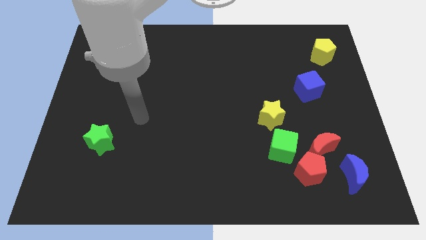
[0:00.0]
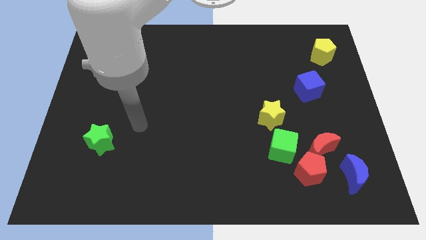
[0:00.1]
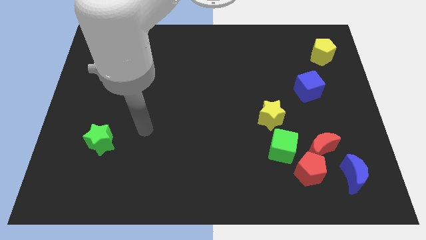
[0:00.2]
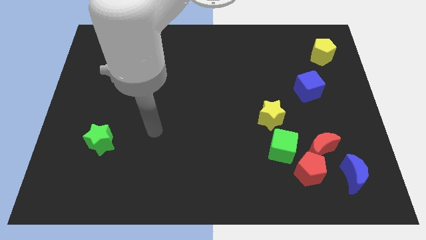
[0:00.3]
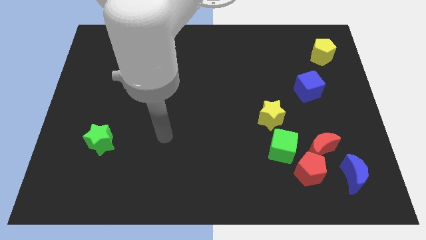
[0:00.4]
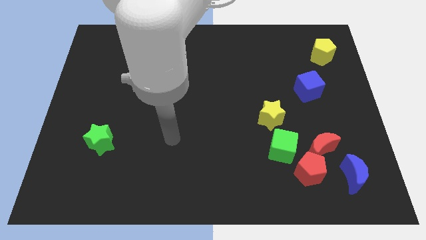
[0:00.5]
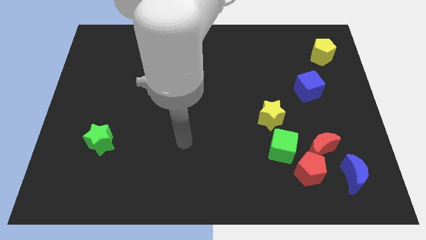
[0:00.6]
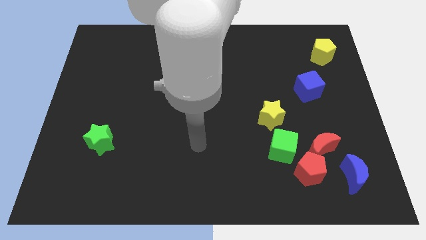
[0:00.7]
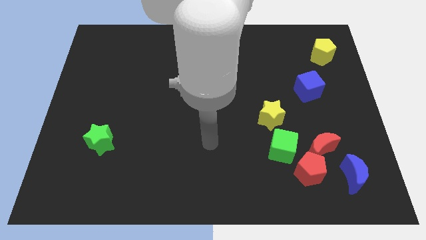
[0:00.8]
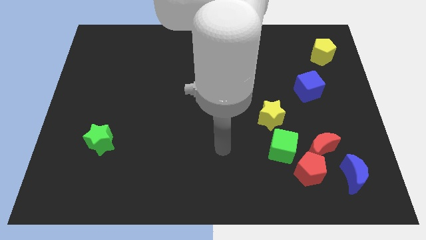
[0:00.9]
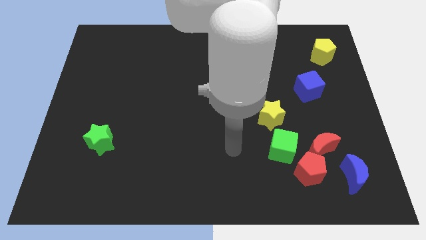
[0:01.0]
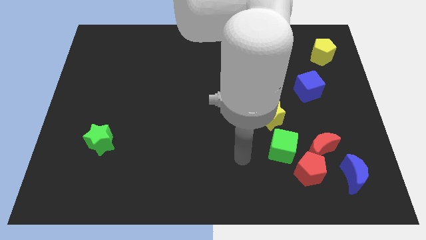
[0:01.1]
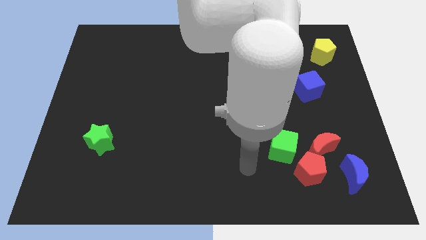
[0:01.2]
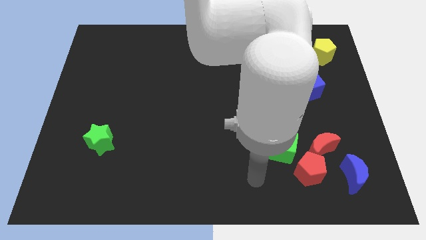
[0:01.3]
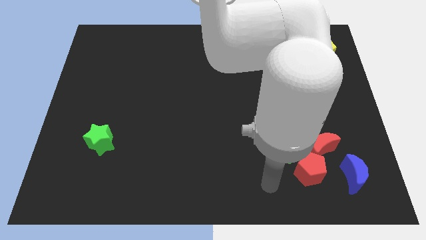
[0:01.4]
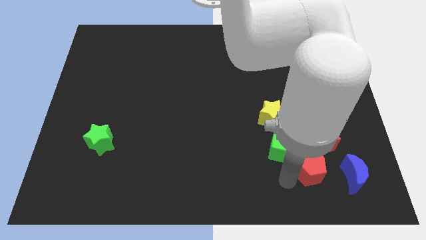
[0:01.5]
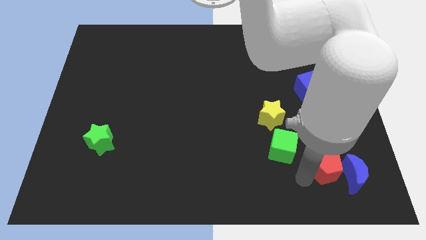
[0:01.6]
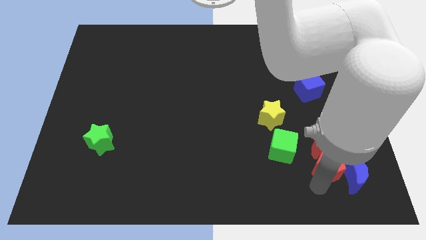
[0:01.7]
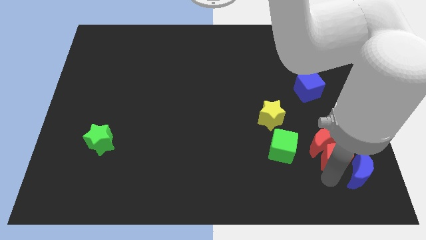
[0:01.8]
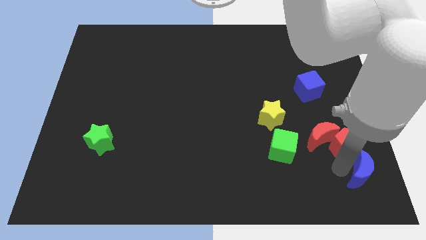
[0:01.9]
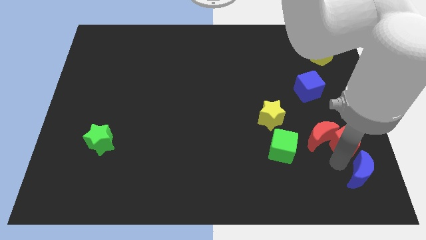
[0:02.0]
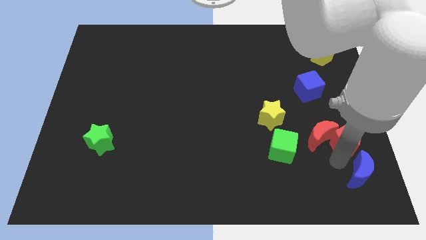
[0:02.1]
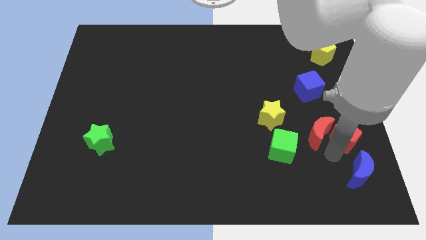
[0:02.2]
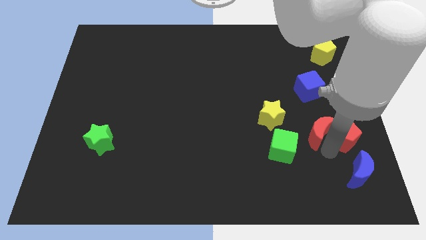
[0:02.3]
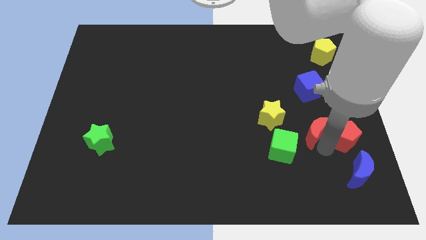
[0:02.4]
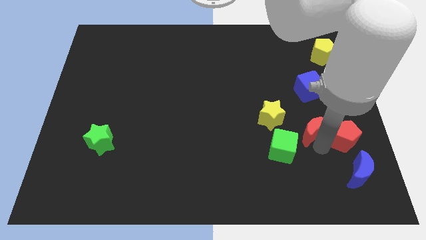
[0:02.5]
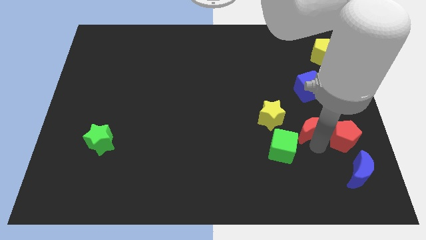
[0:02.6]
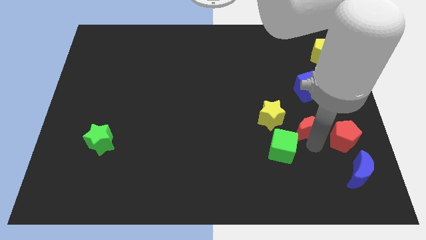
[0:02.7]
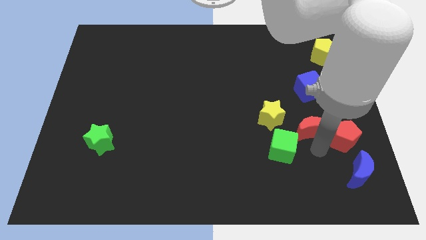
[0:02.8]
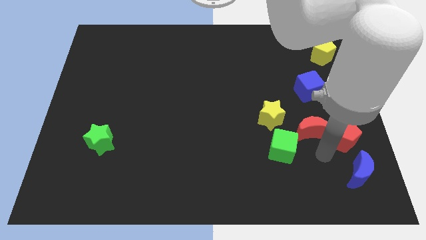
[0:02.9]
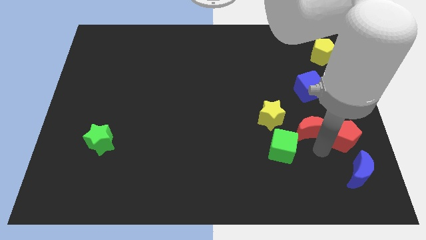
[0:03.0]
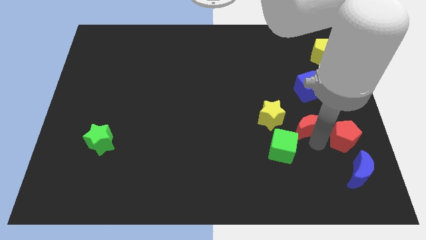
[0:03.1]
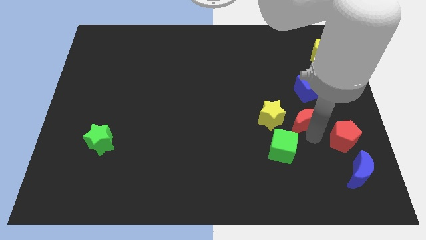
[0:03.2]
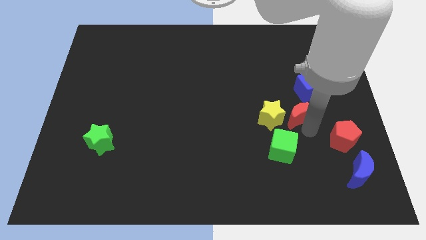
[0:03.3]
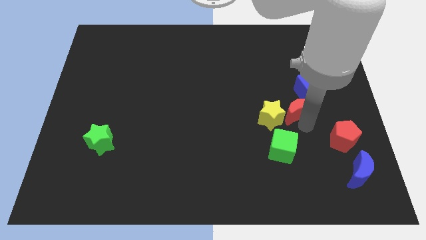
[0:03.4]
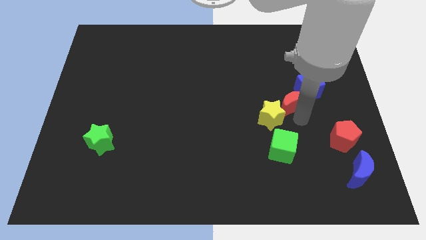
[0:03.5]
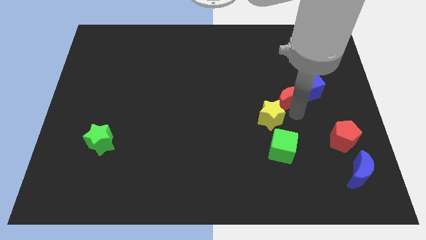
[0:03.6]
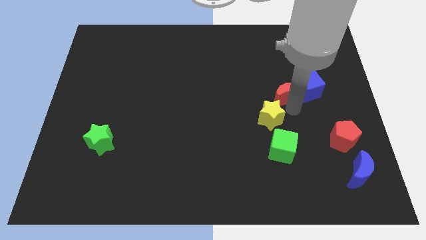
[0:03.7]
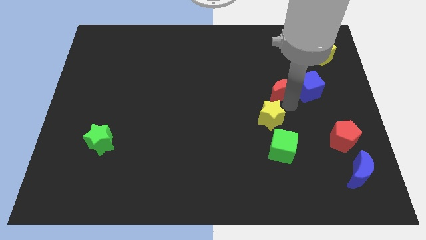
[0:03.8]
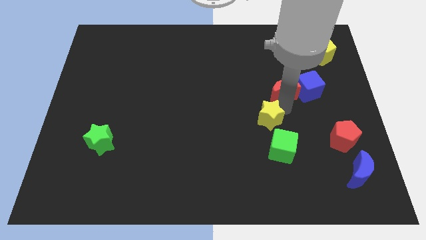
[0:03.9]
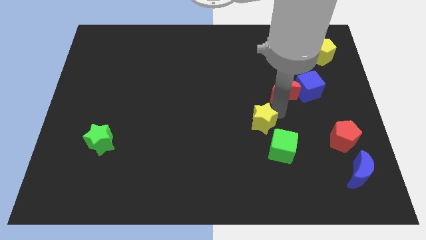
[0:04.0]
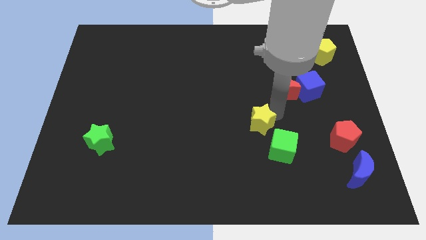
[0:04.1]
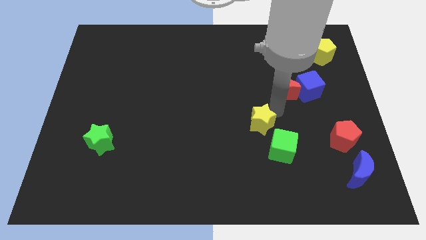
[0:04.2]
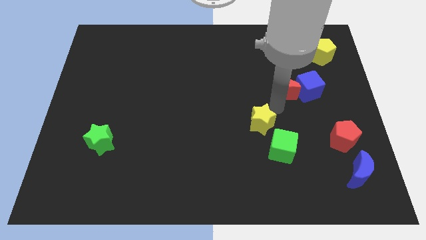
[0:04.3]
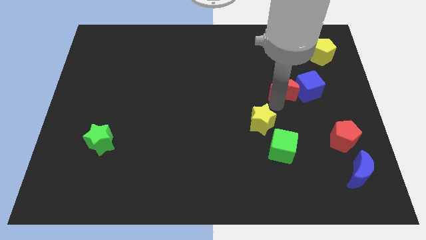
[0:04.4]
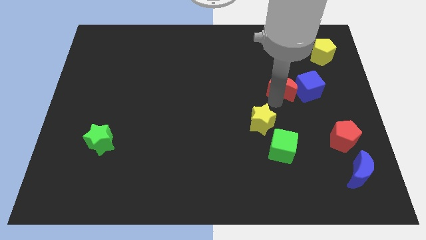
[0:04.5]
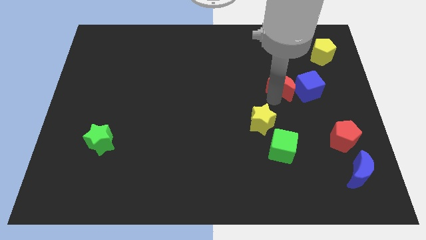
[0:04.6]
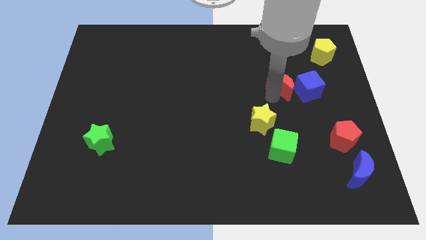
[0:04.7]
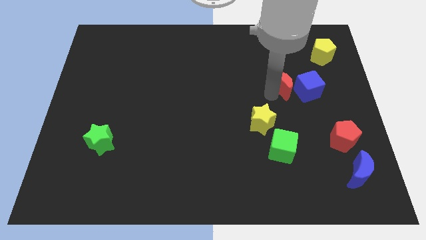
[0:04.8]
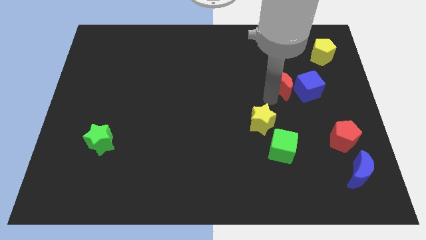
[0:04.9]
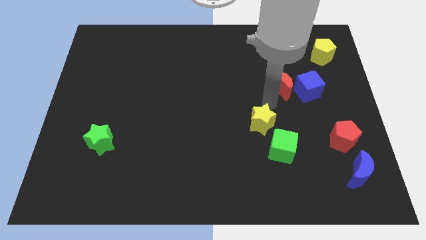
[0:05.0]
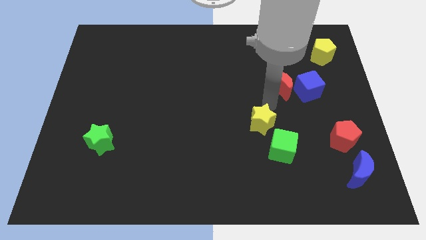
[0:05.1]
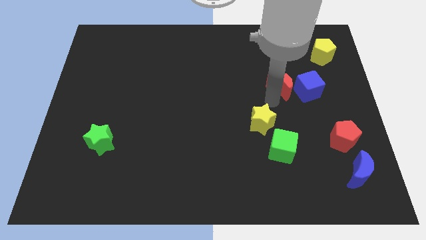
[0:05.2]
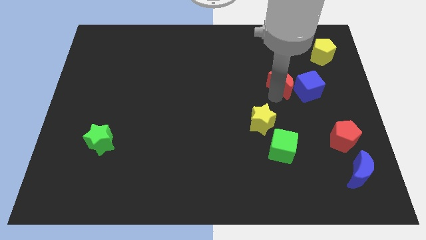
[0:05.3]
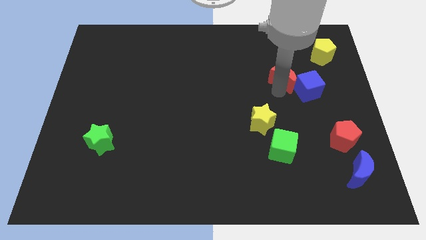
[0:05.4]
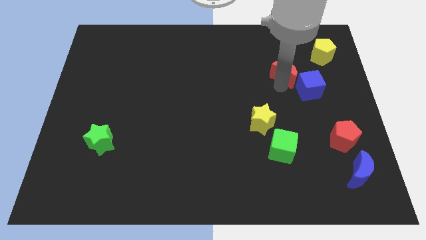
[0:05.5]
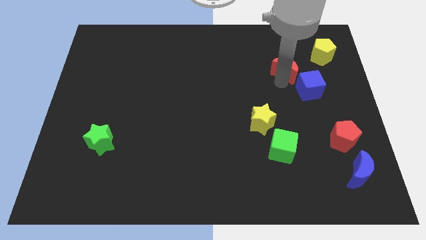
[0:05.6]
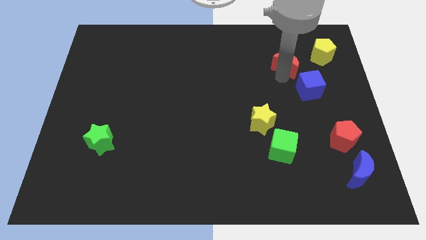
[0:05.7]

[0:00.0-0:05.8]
put the red moon above the blue cube

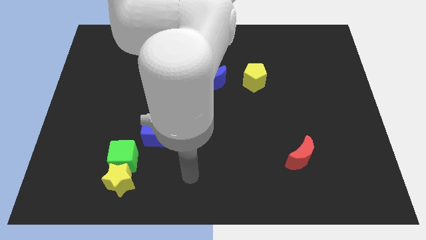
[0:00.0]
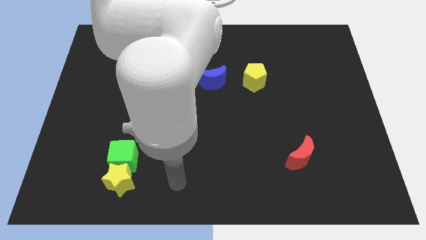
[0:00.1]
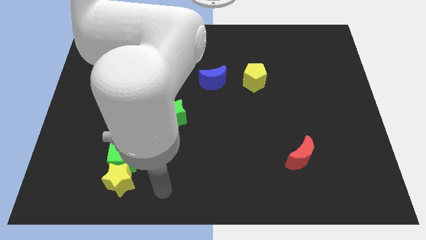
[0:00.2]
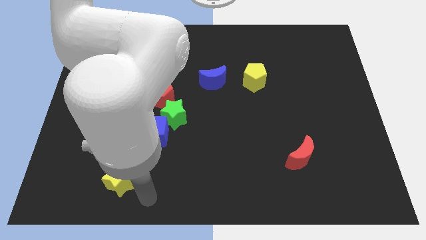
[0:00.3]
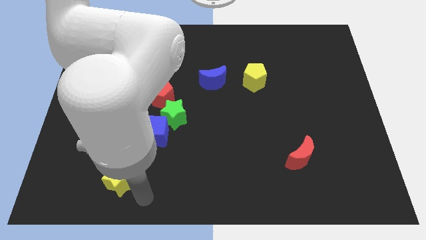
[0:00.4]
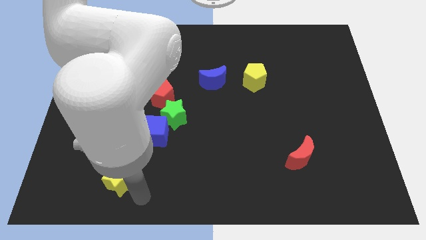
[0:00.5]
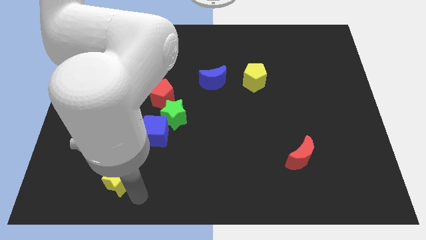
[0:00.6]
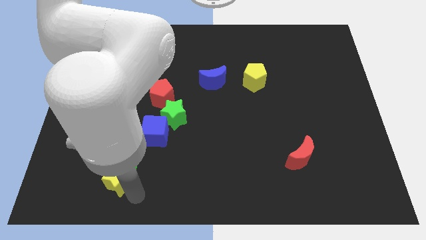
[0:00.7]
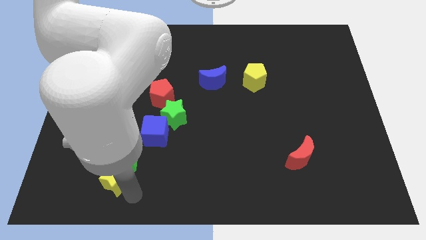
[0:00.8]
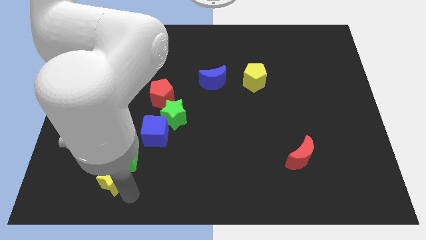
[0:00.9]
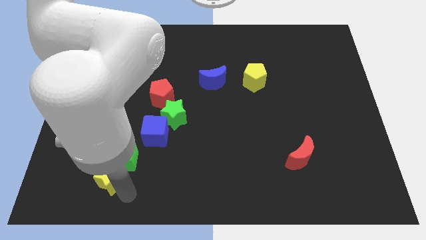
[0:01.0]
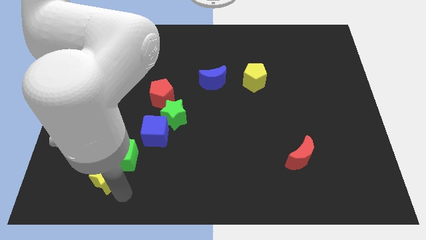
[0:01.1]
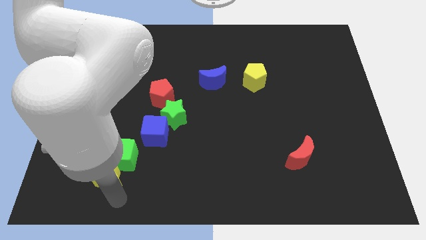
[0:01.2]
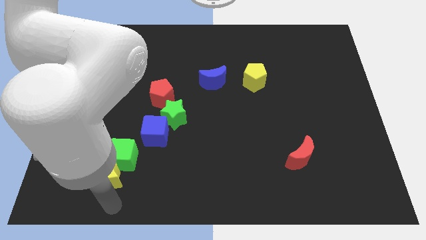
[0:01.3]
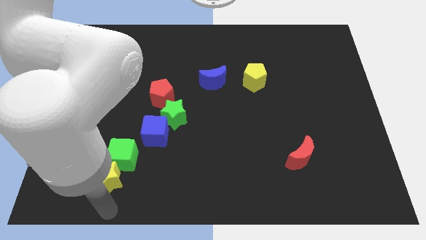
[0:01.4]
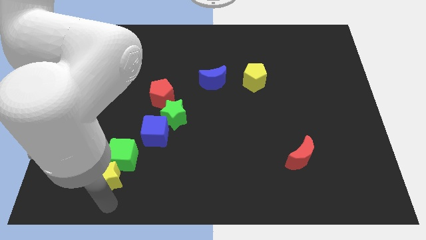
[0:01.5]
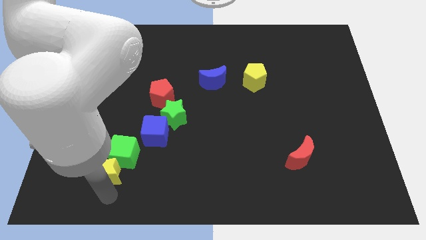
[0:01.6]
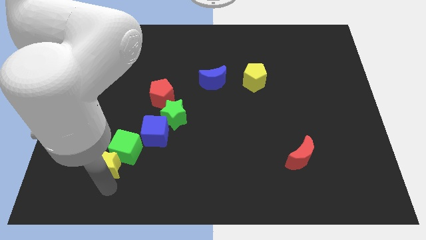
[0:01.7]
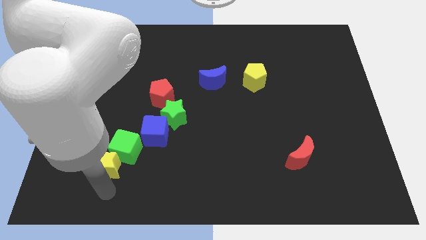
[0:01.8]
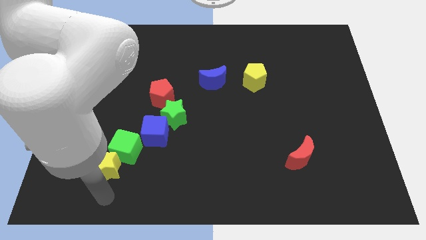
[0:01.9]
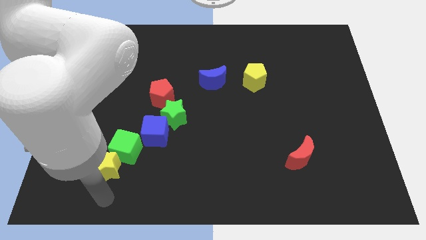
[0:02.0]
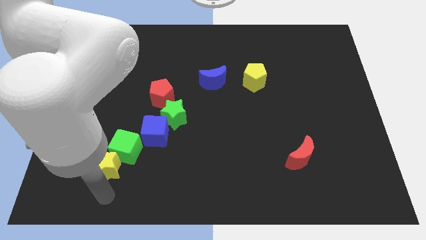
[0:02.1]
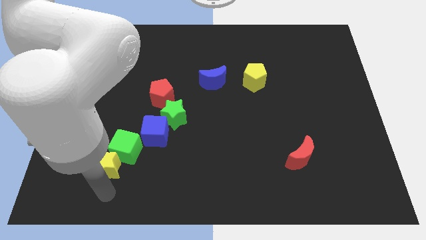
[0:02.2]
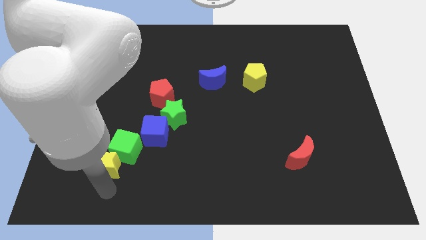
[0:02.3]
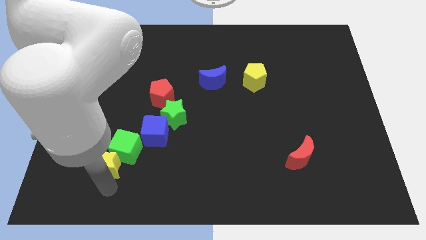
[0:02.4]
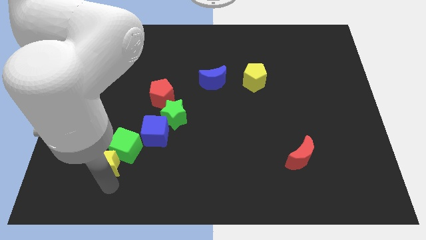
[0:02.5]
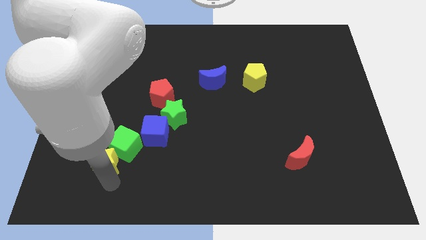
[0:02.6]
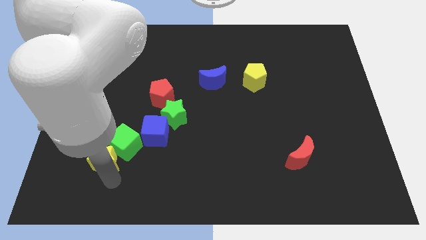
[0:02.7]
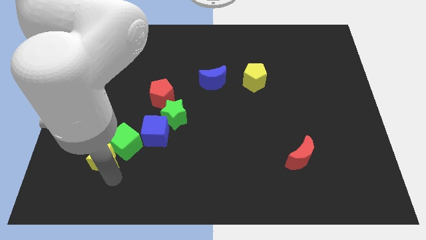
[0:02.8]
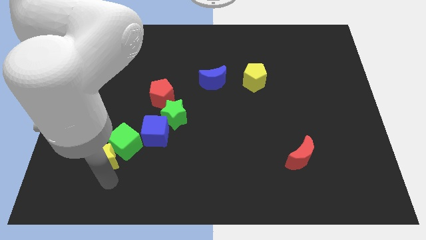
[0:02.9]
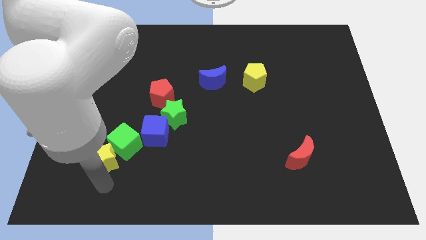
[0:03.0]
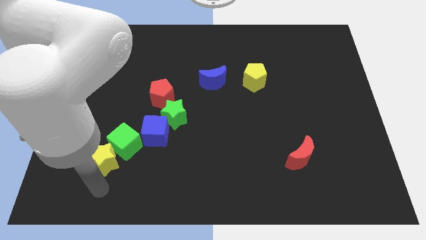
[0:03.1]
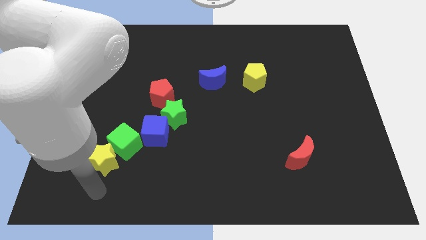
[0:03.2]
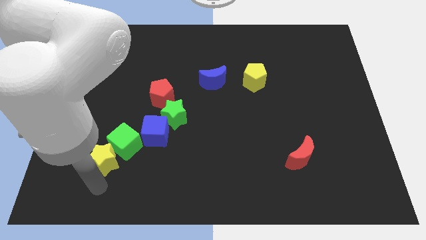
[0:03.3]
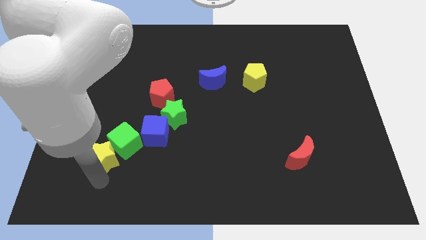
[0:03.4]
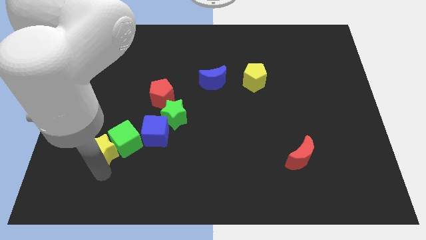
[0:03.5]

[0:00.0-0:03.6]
put the yellow star left of the blue cube
